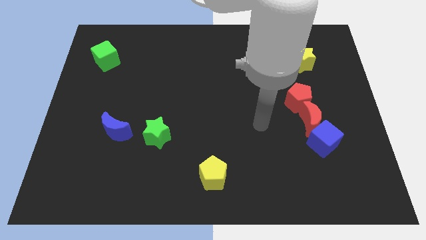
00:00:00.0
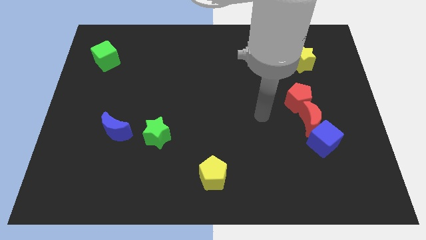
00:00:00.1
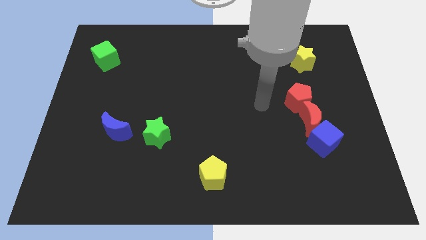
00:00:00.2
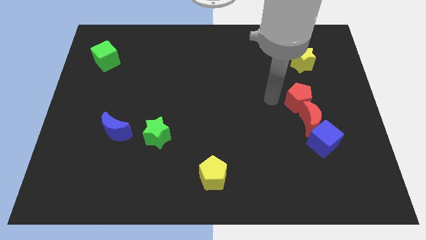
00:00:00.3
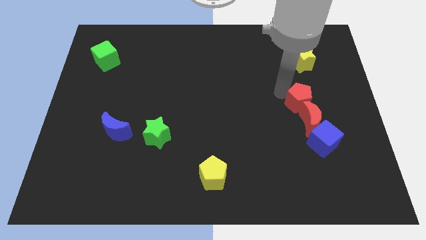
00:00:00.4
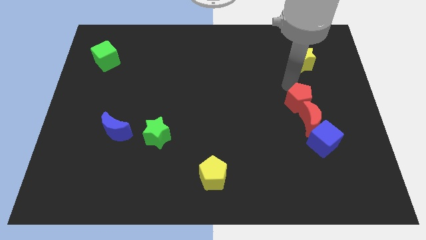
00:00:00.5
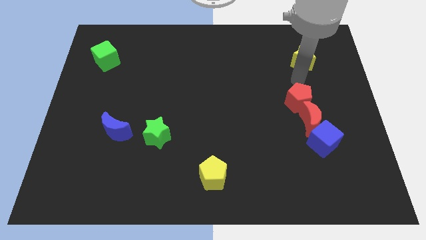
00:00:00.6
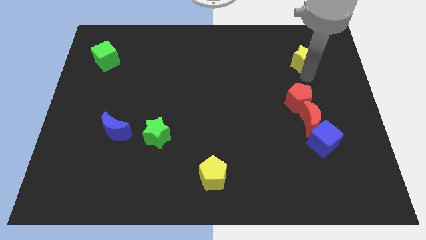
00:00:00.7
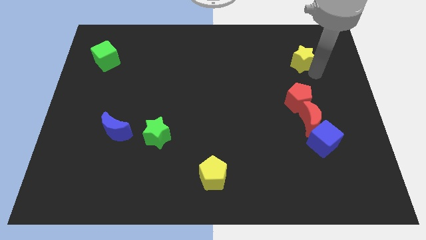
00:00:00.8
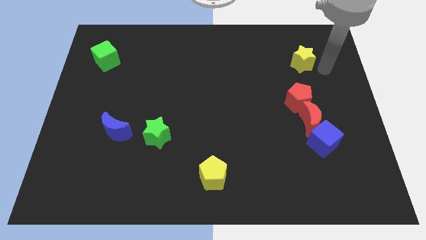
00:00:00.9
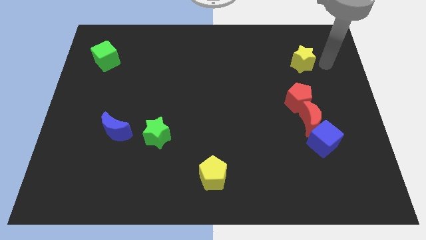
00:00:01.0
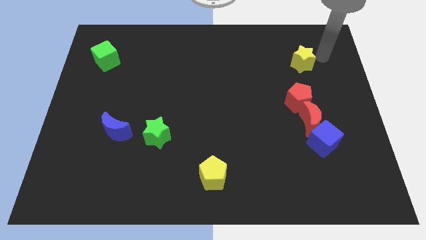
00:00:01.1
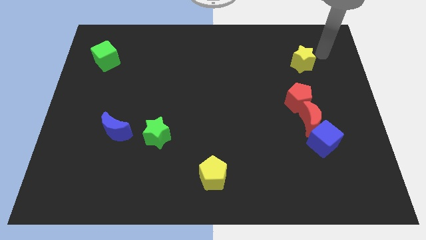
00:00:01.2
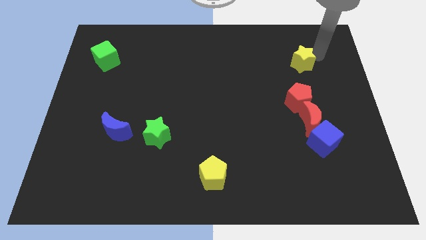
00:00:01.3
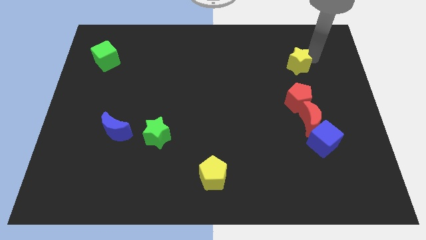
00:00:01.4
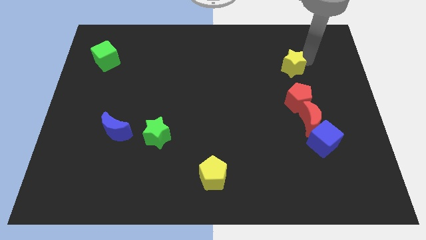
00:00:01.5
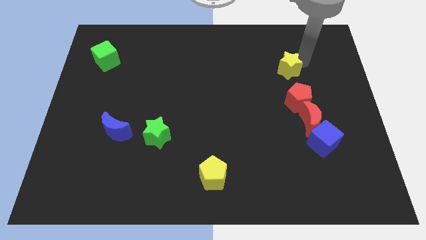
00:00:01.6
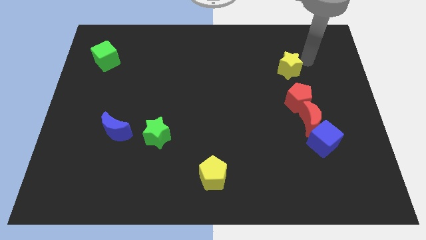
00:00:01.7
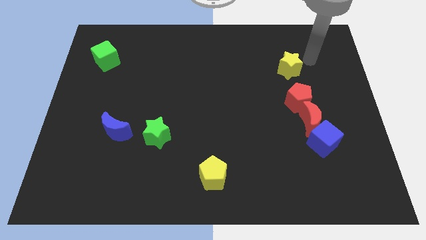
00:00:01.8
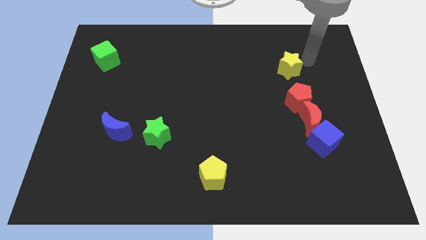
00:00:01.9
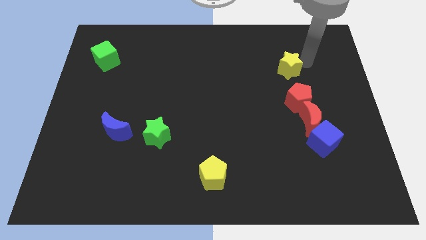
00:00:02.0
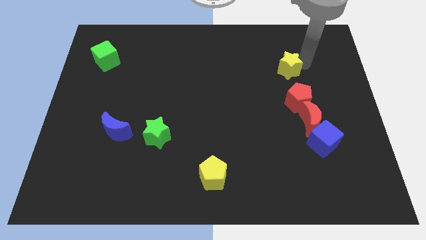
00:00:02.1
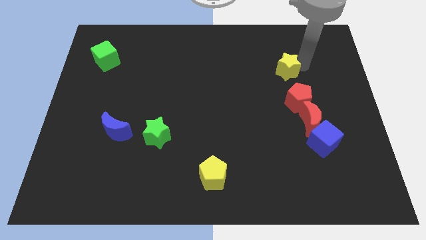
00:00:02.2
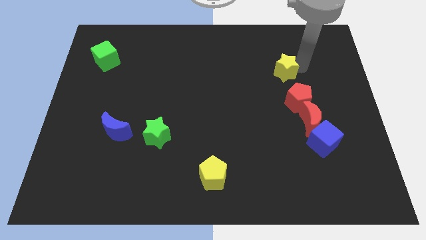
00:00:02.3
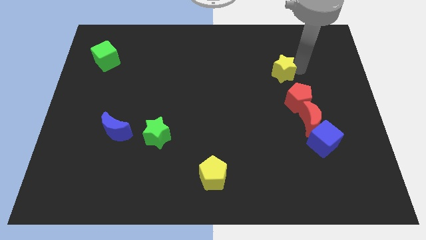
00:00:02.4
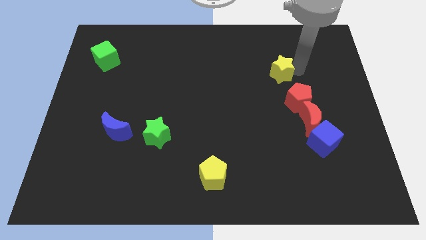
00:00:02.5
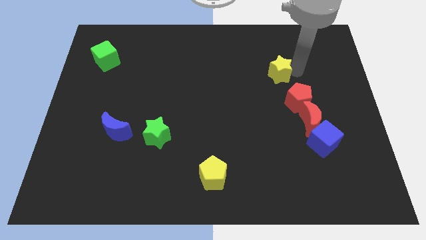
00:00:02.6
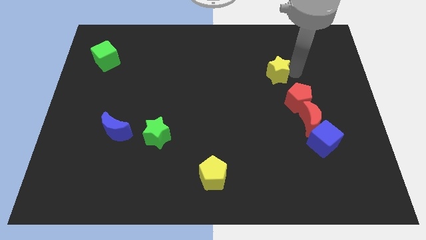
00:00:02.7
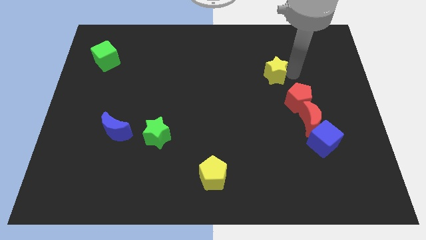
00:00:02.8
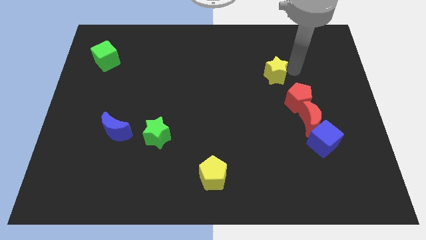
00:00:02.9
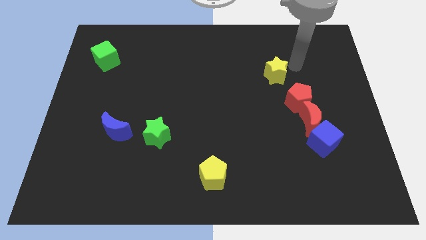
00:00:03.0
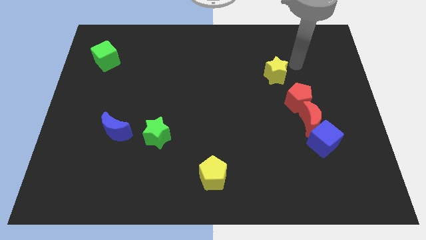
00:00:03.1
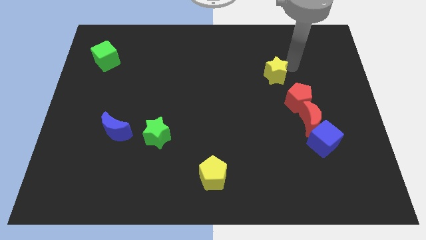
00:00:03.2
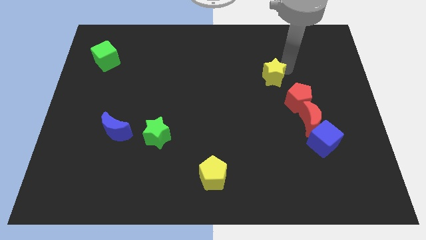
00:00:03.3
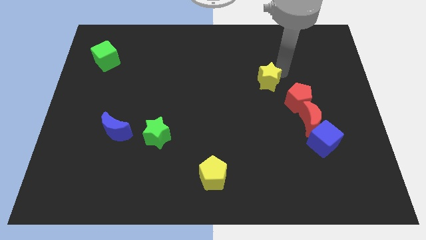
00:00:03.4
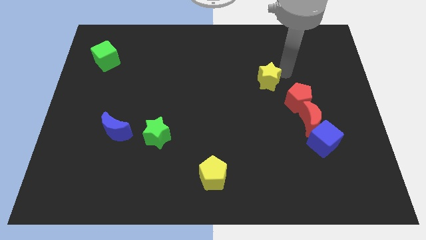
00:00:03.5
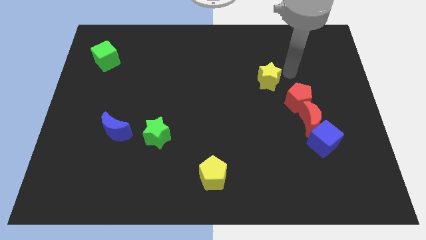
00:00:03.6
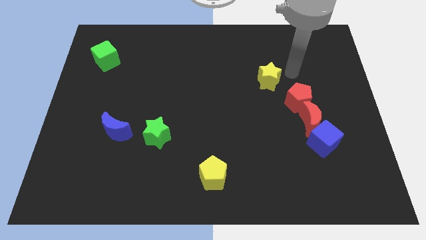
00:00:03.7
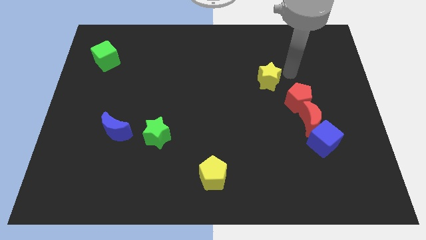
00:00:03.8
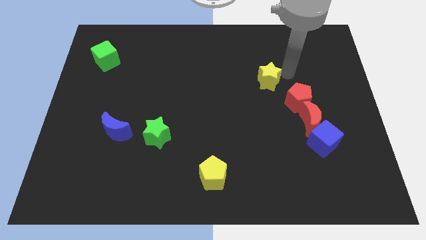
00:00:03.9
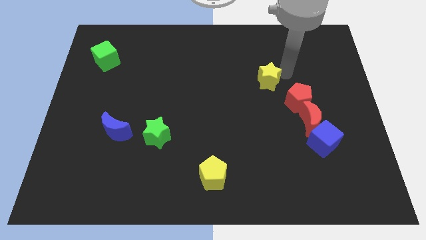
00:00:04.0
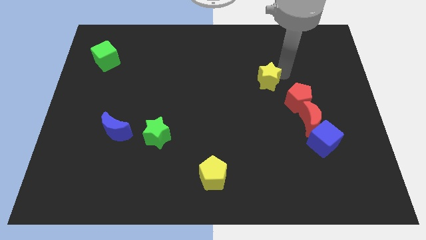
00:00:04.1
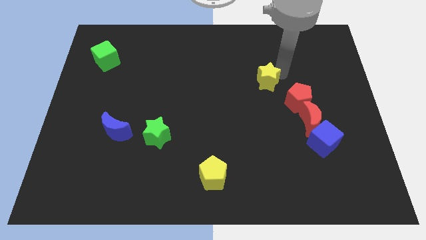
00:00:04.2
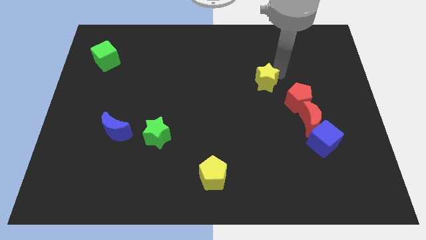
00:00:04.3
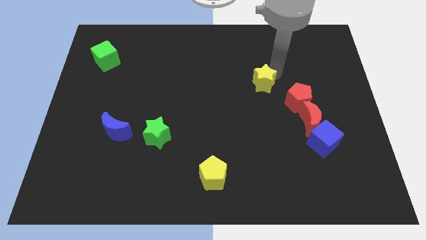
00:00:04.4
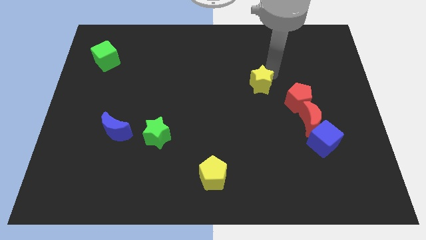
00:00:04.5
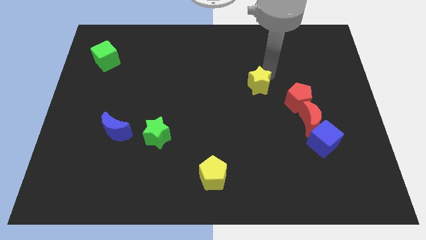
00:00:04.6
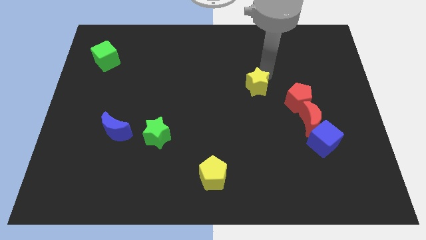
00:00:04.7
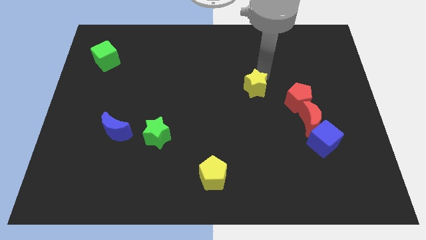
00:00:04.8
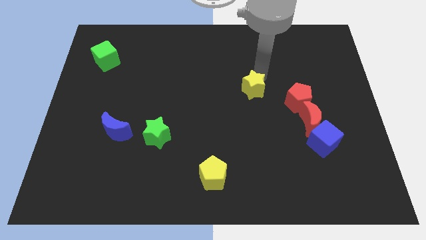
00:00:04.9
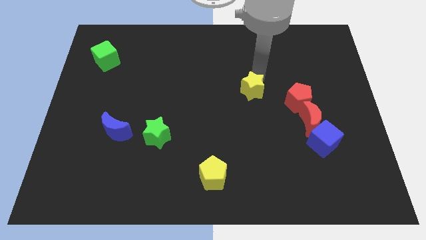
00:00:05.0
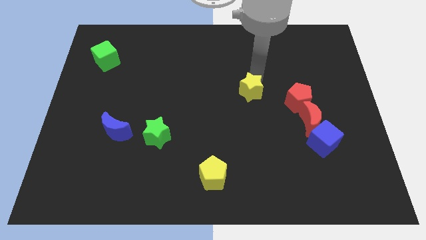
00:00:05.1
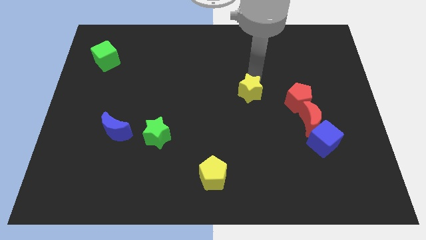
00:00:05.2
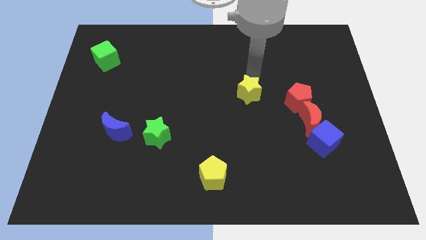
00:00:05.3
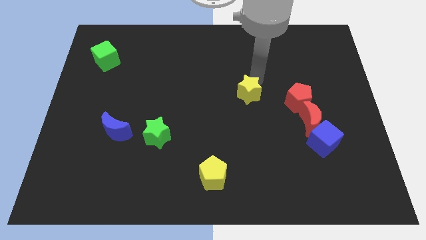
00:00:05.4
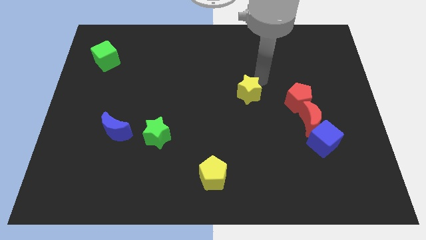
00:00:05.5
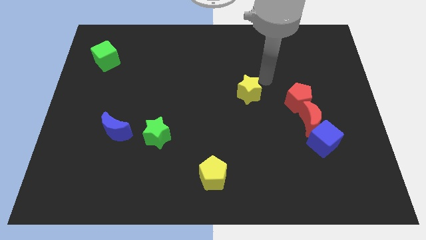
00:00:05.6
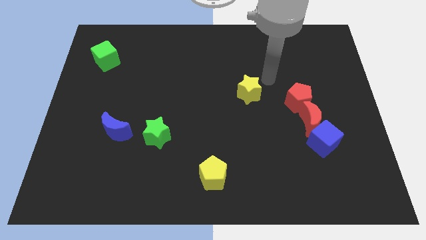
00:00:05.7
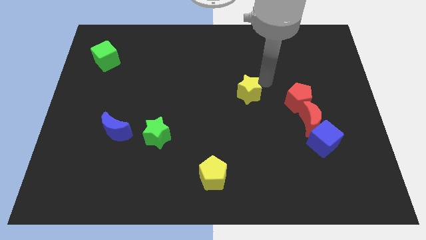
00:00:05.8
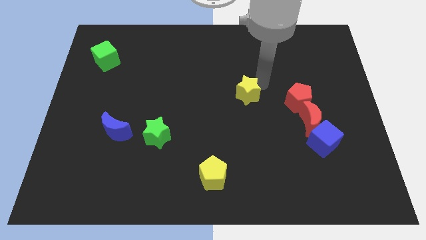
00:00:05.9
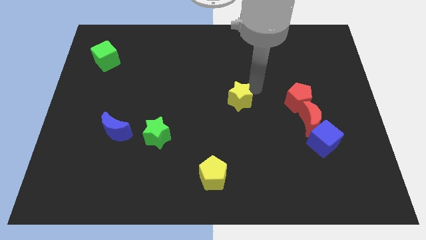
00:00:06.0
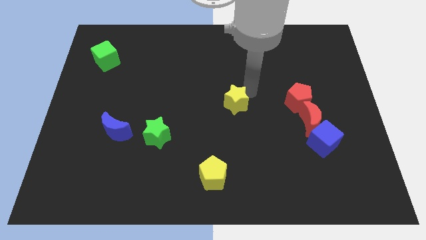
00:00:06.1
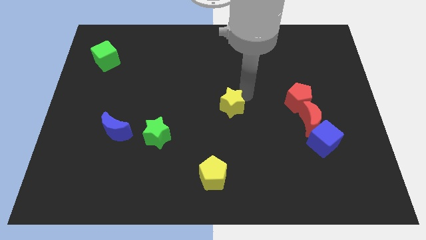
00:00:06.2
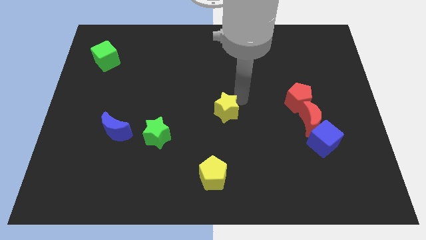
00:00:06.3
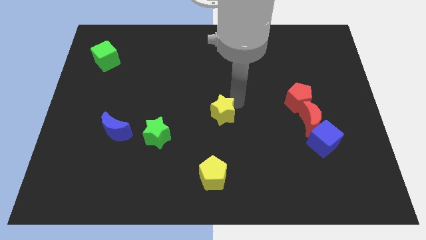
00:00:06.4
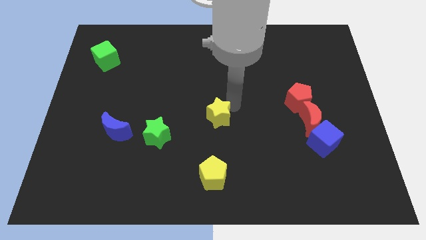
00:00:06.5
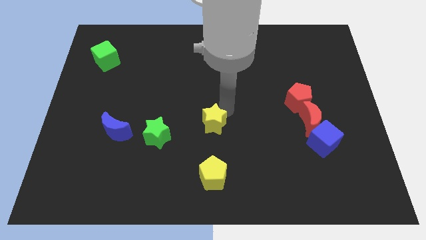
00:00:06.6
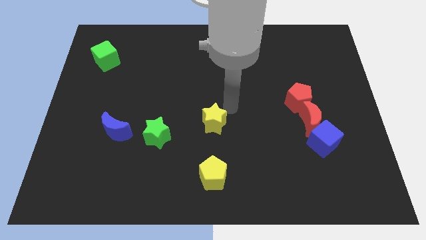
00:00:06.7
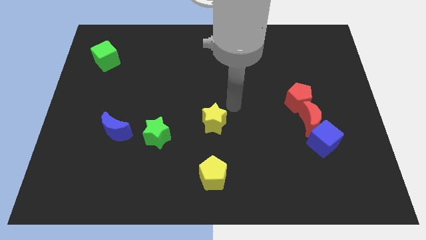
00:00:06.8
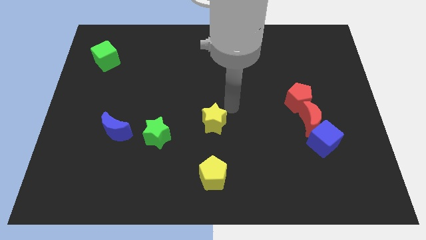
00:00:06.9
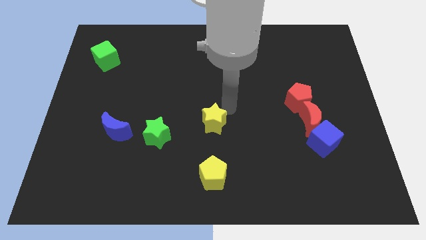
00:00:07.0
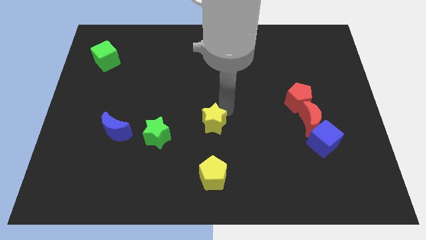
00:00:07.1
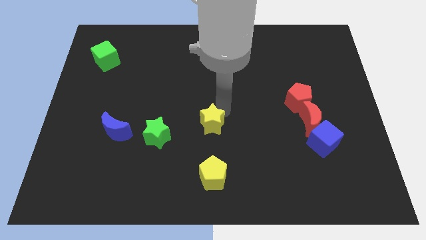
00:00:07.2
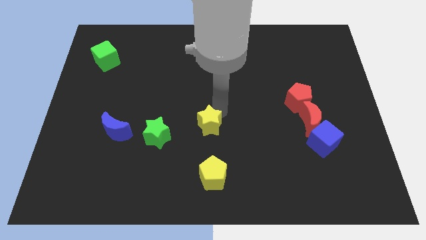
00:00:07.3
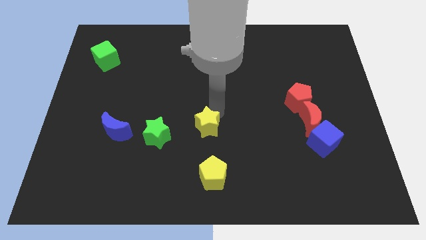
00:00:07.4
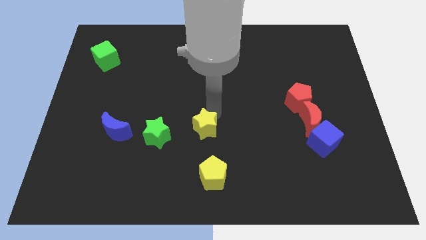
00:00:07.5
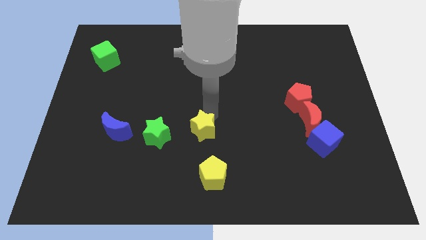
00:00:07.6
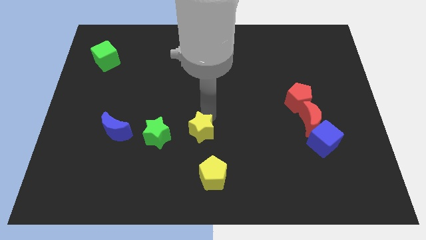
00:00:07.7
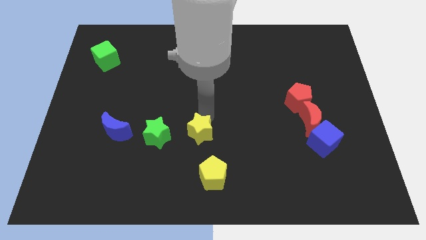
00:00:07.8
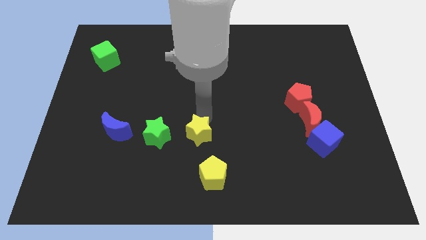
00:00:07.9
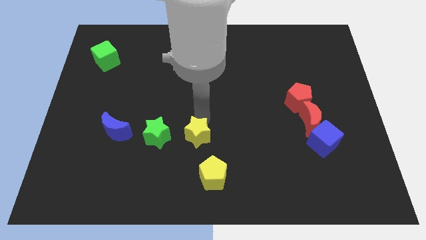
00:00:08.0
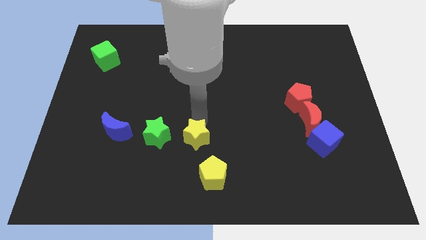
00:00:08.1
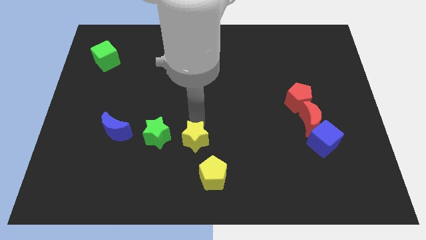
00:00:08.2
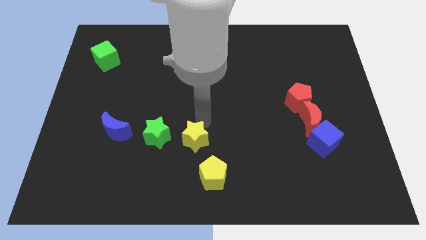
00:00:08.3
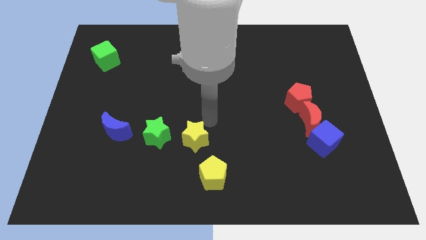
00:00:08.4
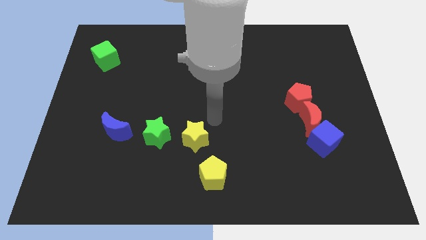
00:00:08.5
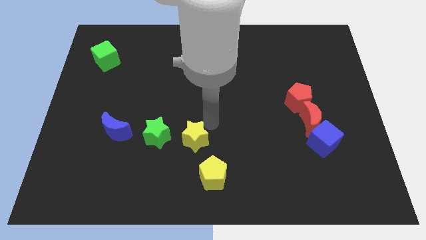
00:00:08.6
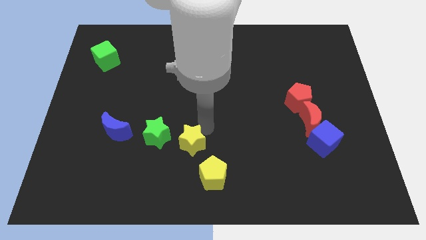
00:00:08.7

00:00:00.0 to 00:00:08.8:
slide the yellow star to the bottom right side of the green star
